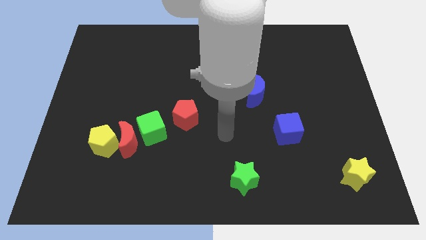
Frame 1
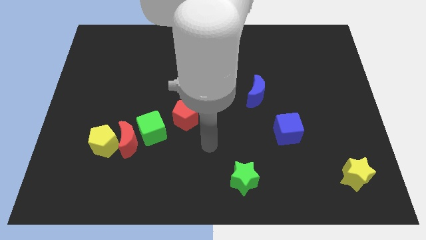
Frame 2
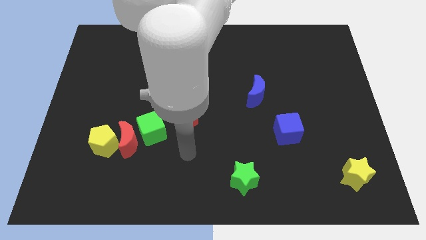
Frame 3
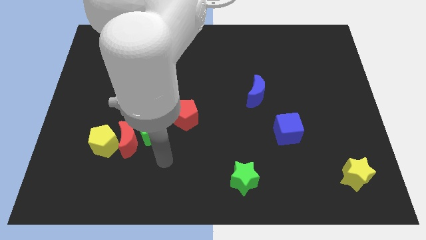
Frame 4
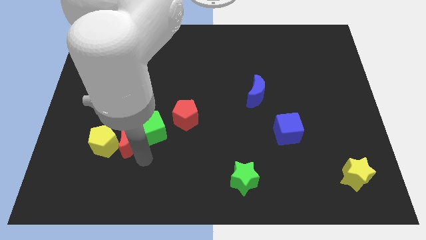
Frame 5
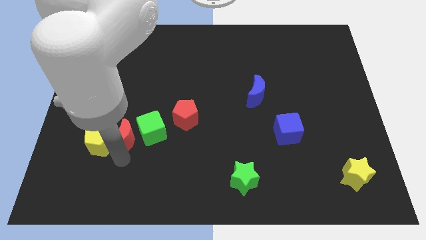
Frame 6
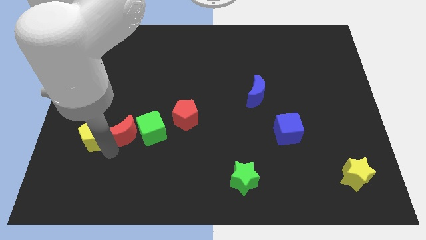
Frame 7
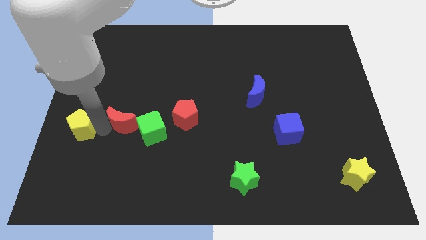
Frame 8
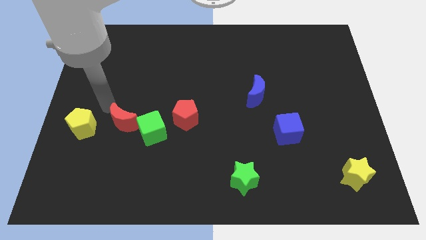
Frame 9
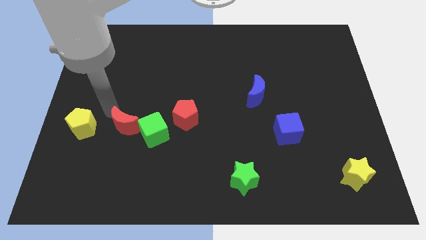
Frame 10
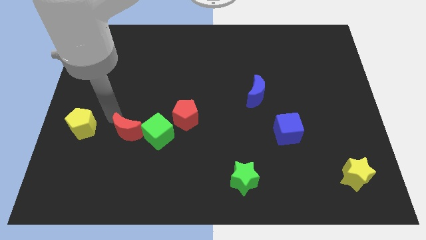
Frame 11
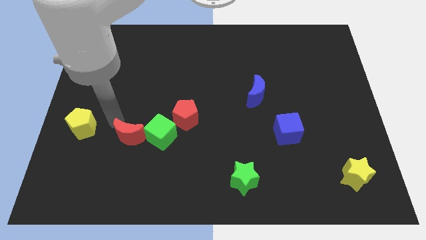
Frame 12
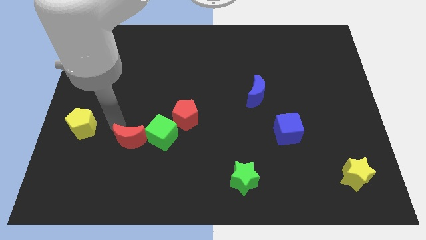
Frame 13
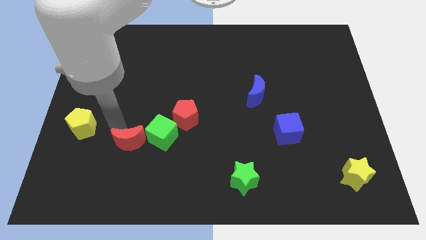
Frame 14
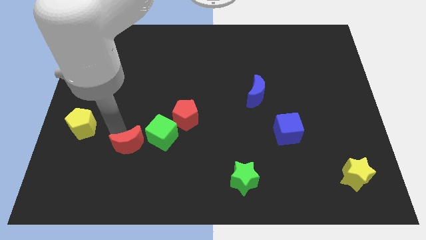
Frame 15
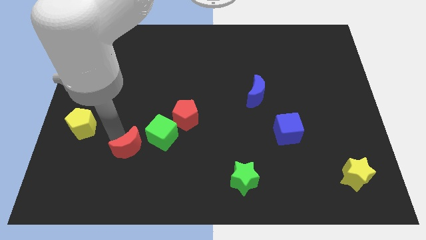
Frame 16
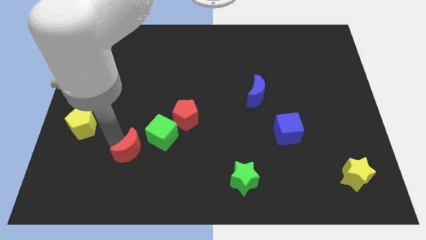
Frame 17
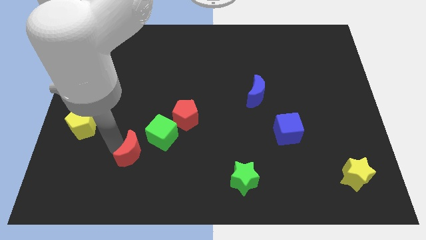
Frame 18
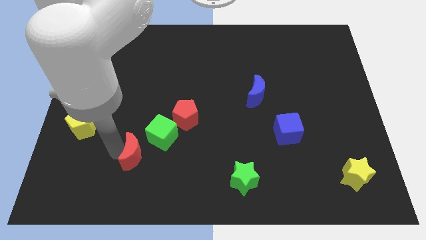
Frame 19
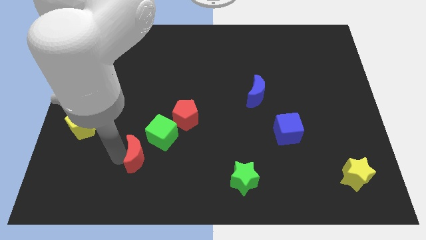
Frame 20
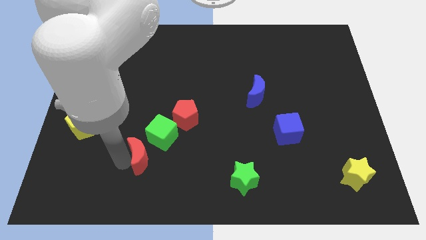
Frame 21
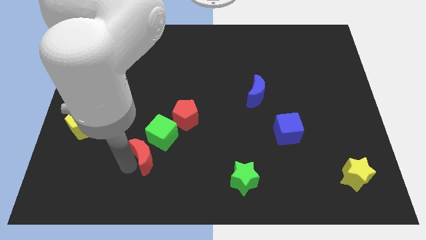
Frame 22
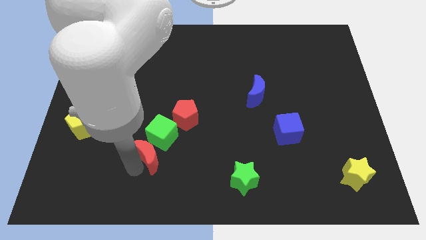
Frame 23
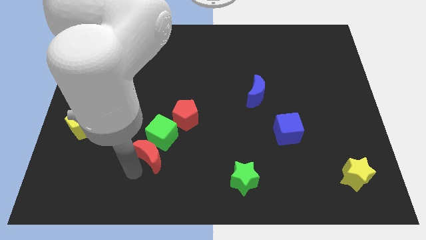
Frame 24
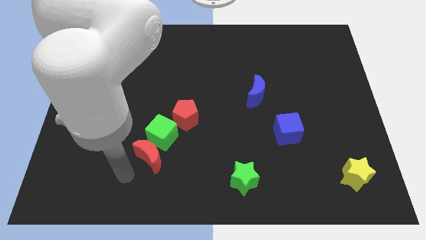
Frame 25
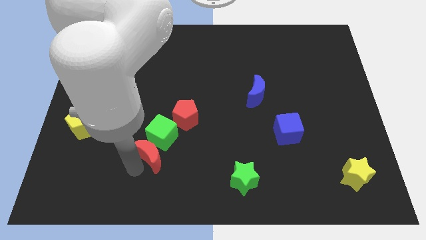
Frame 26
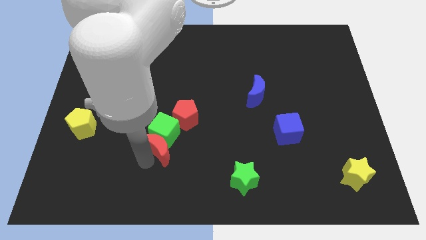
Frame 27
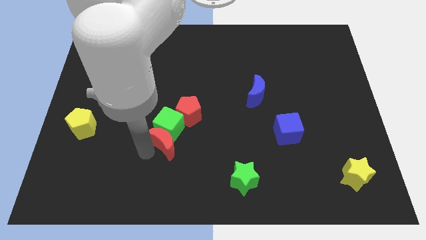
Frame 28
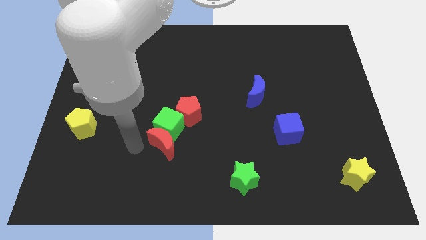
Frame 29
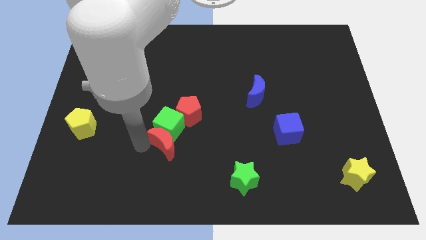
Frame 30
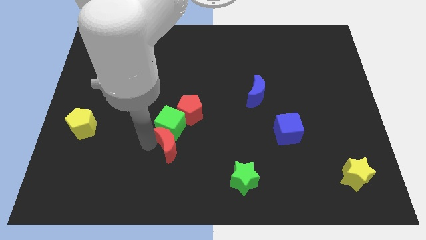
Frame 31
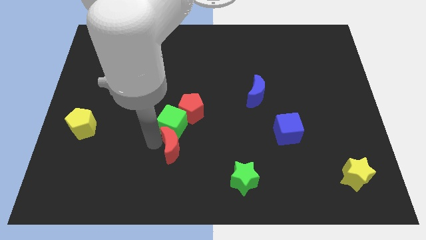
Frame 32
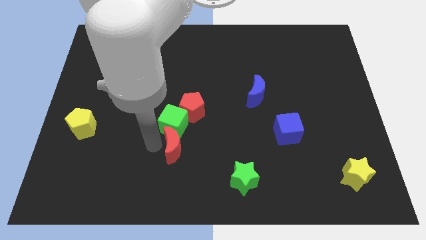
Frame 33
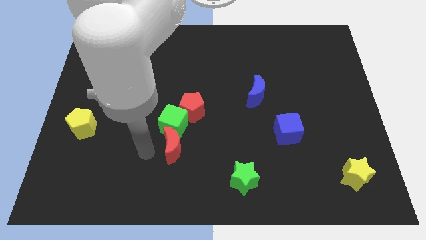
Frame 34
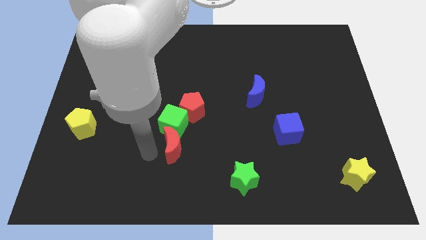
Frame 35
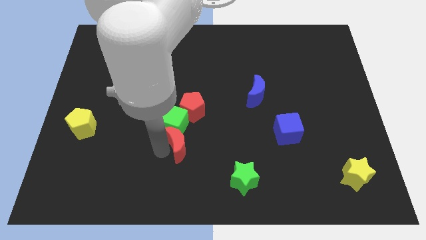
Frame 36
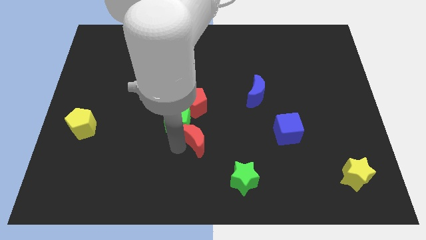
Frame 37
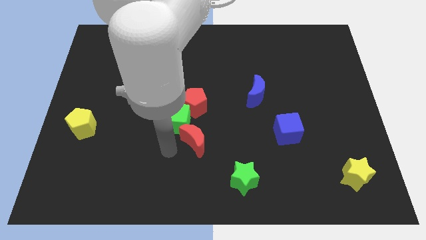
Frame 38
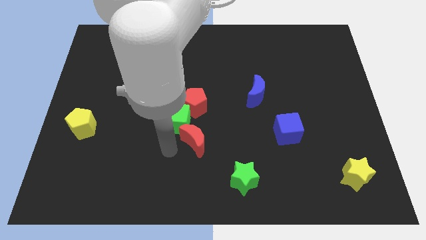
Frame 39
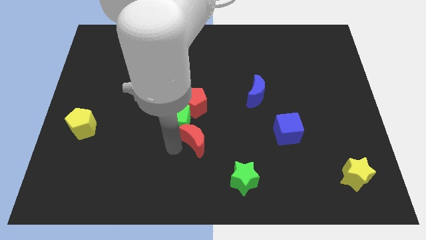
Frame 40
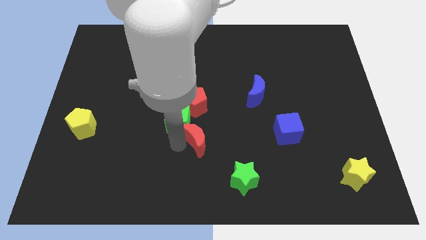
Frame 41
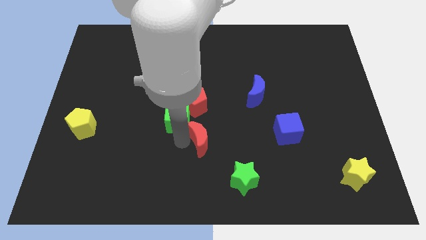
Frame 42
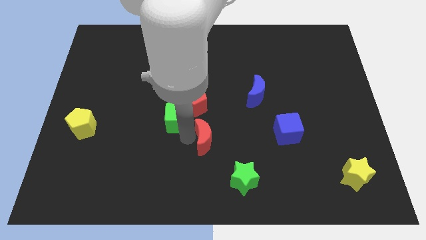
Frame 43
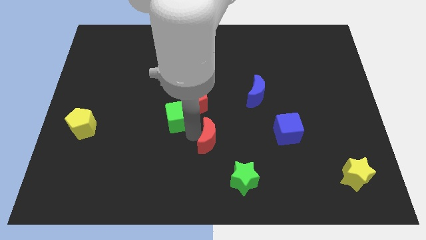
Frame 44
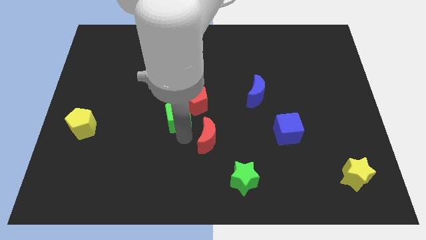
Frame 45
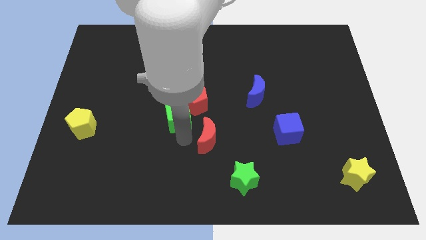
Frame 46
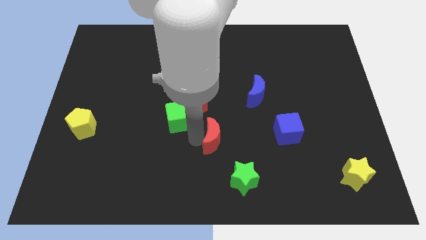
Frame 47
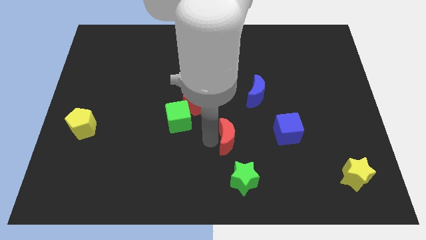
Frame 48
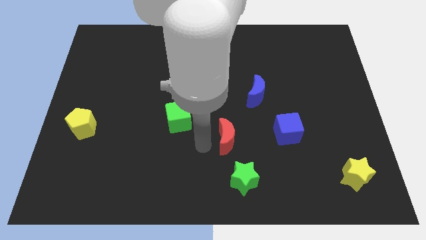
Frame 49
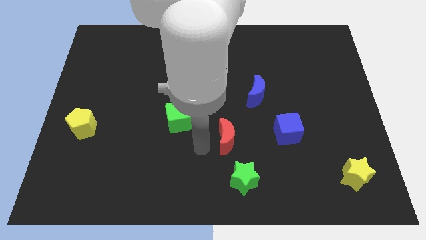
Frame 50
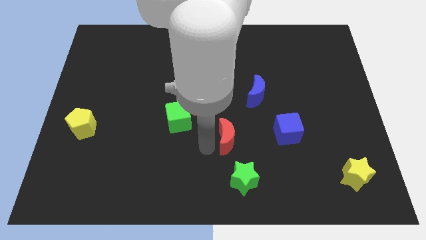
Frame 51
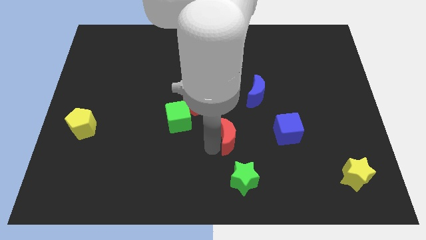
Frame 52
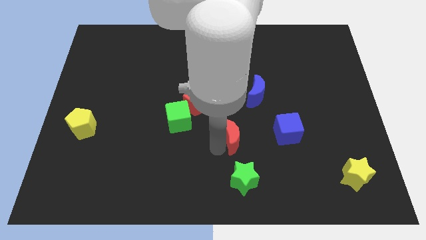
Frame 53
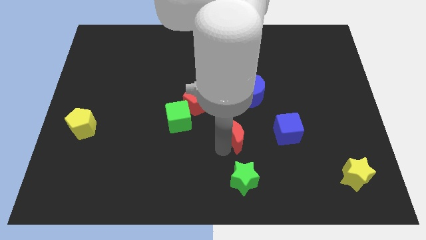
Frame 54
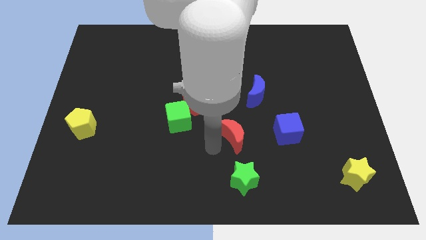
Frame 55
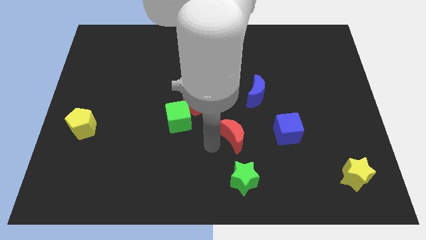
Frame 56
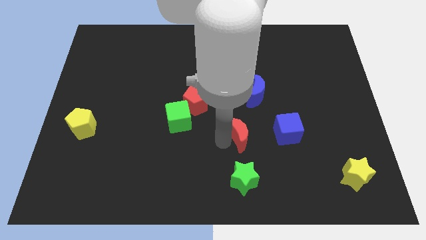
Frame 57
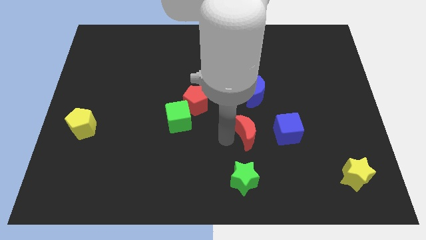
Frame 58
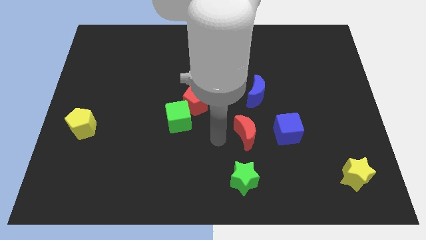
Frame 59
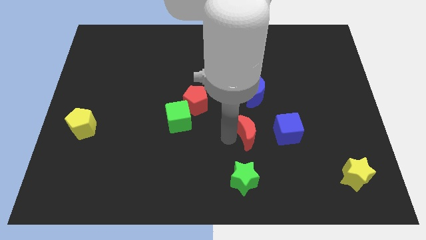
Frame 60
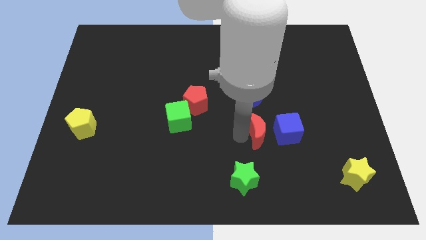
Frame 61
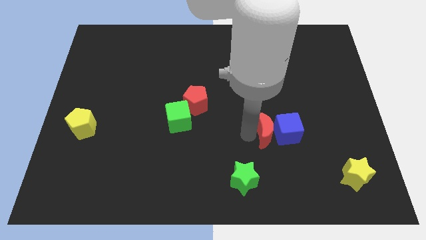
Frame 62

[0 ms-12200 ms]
slide the red moon close to the blue cube

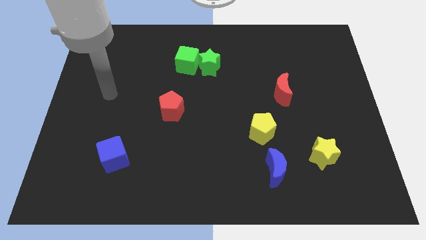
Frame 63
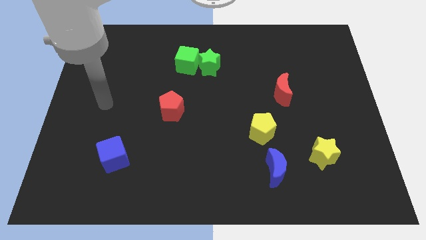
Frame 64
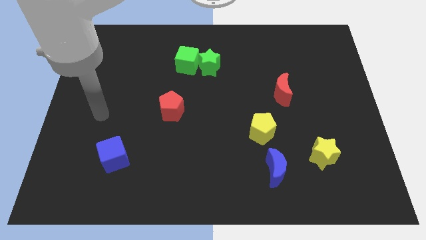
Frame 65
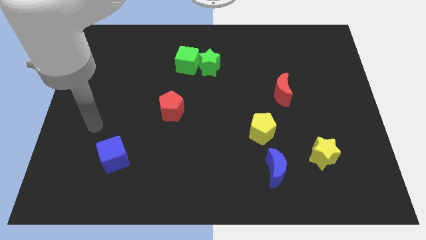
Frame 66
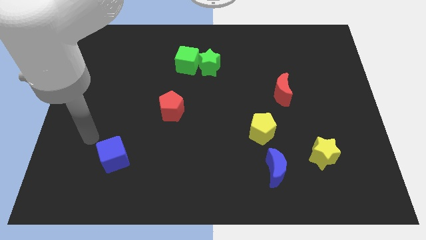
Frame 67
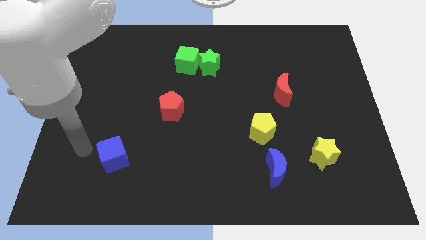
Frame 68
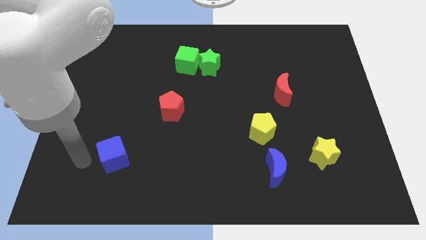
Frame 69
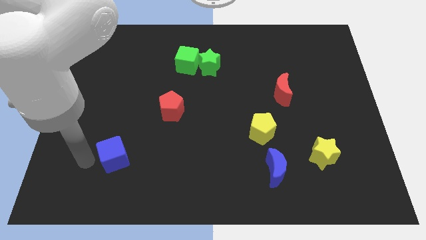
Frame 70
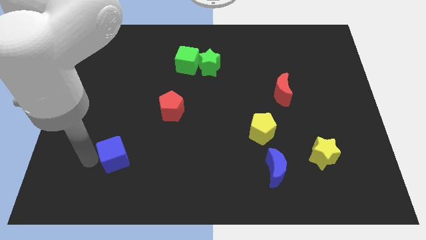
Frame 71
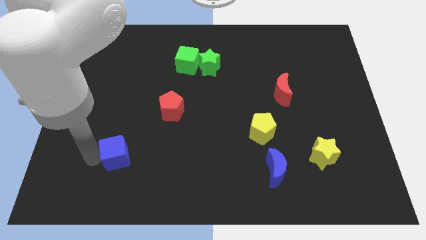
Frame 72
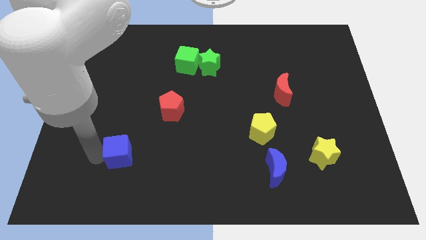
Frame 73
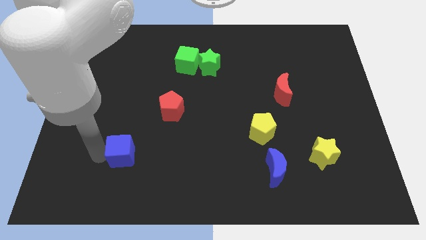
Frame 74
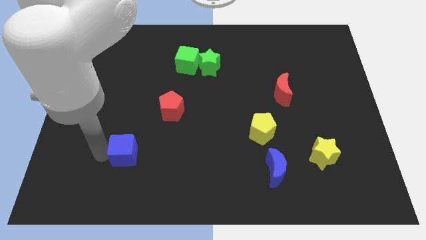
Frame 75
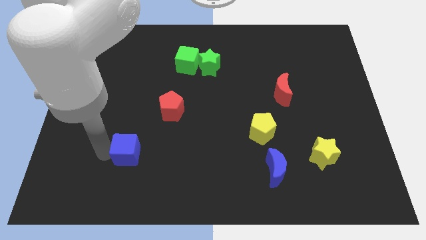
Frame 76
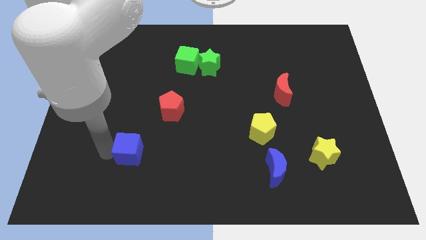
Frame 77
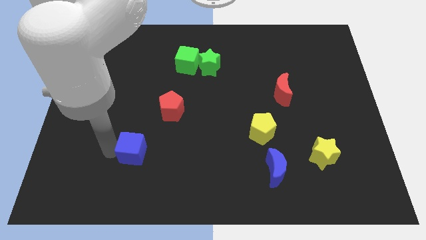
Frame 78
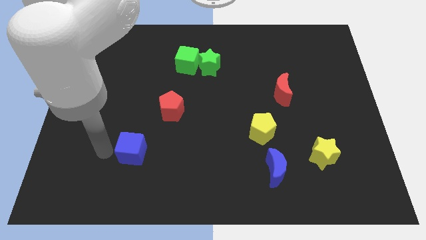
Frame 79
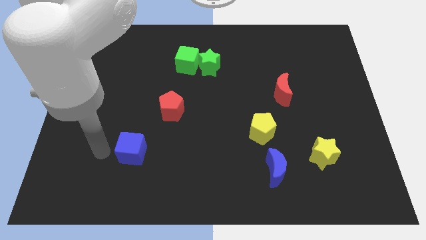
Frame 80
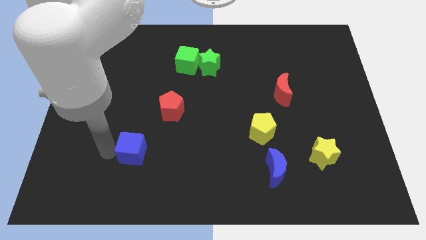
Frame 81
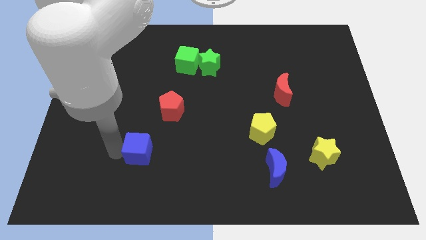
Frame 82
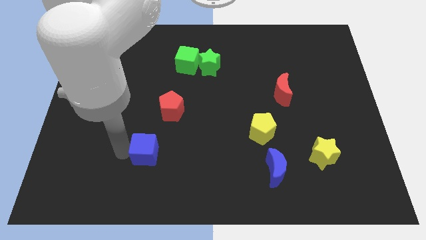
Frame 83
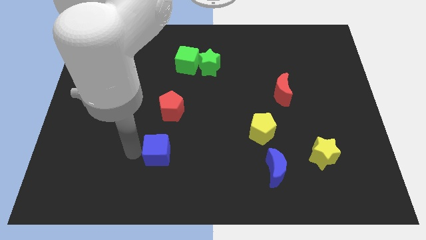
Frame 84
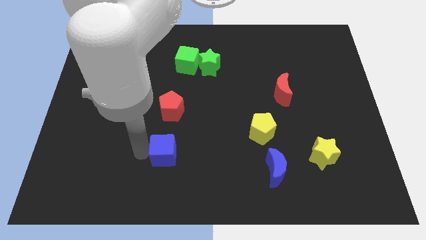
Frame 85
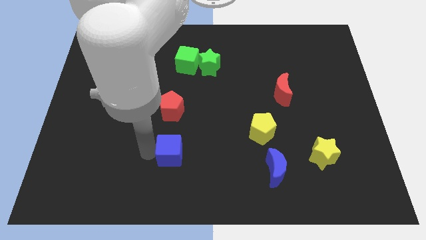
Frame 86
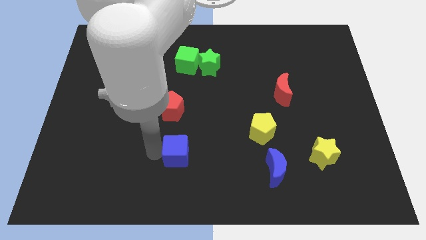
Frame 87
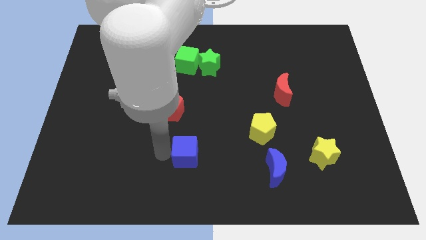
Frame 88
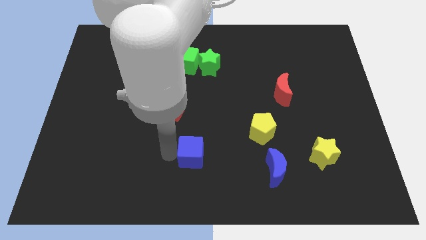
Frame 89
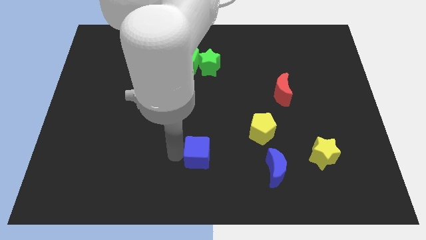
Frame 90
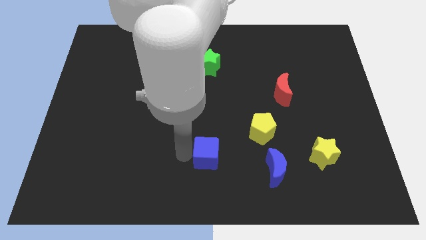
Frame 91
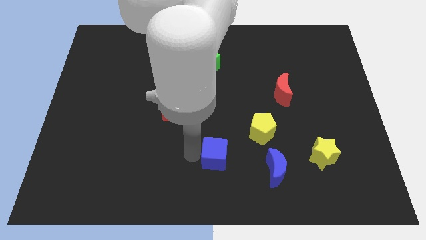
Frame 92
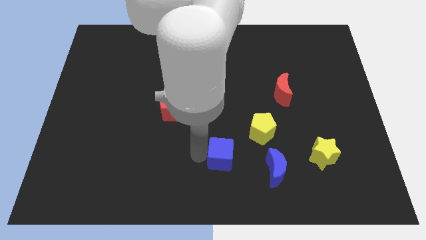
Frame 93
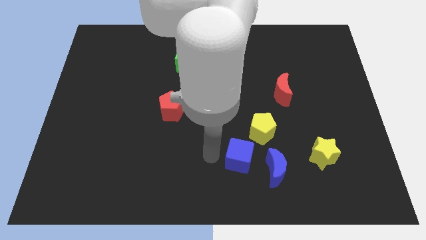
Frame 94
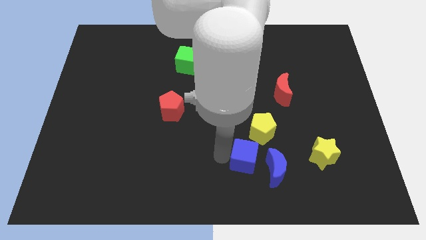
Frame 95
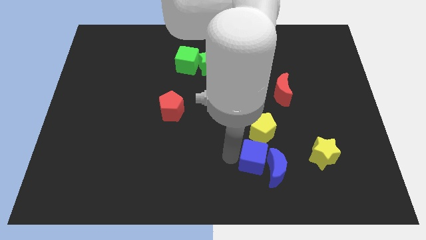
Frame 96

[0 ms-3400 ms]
slide the blue cube to the blue moon
